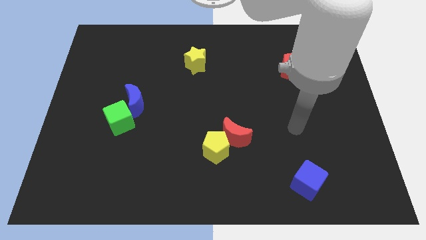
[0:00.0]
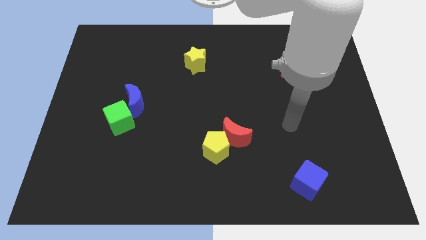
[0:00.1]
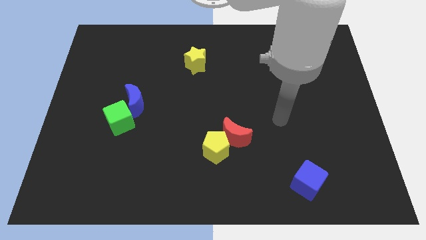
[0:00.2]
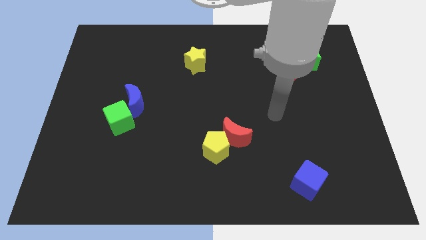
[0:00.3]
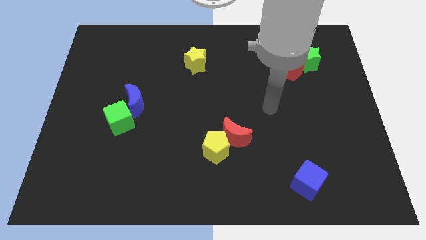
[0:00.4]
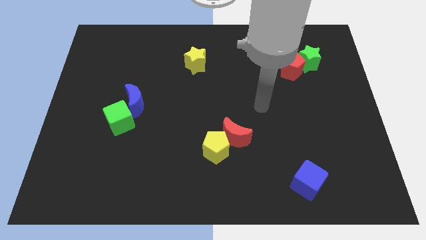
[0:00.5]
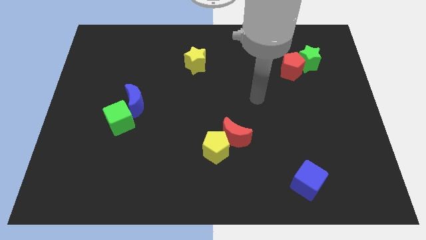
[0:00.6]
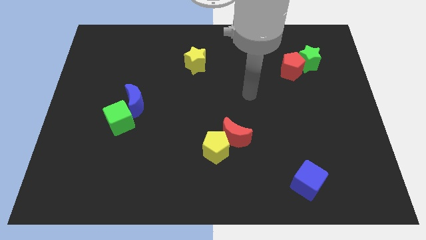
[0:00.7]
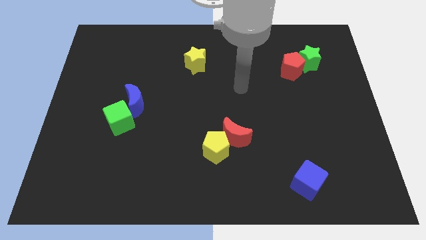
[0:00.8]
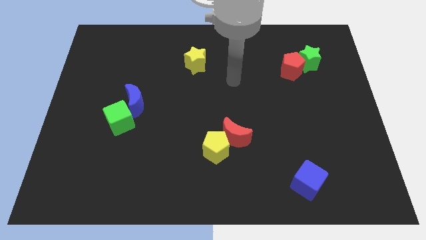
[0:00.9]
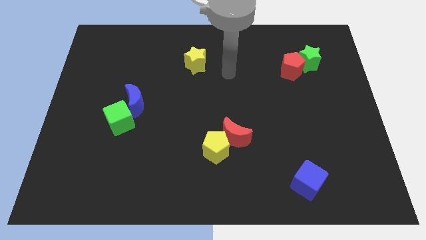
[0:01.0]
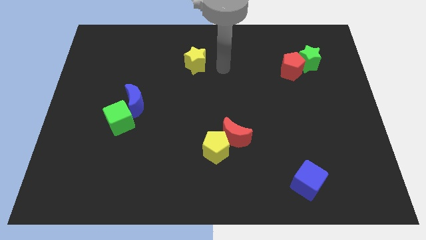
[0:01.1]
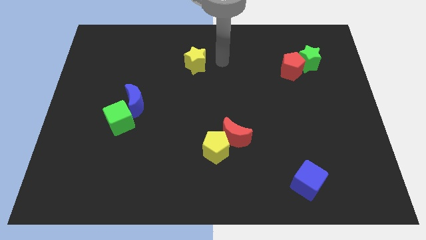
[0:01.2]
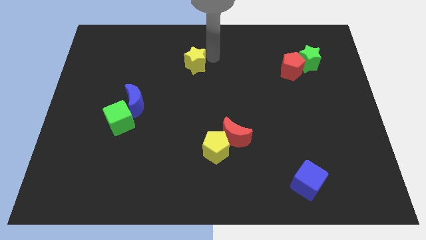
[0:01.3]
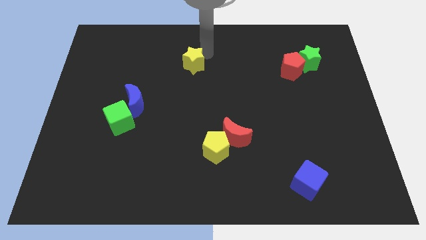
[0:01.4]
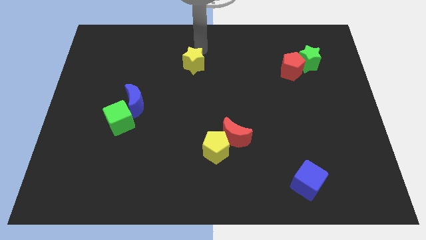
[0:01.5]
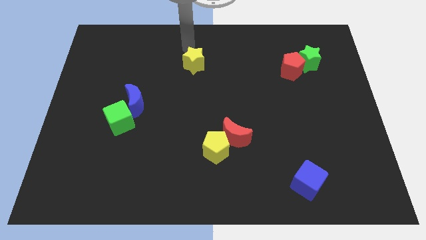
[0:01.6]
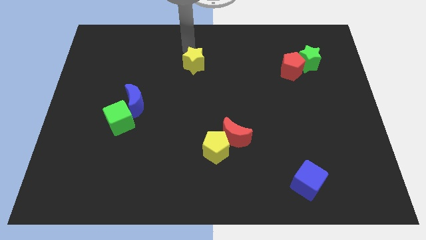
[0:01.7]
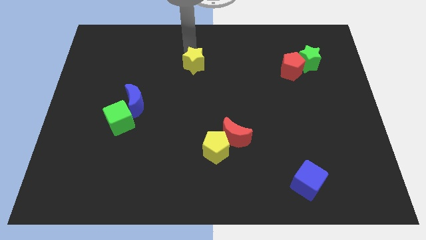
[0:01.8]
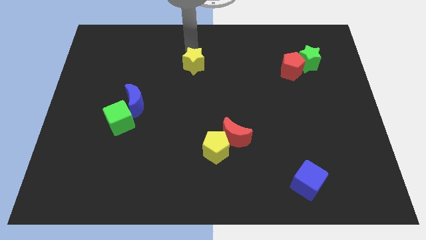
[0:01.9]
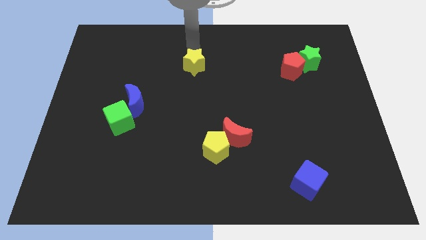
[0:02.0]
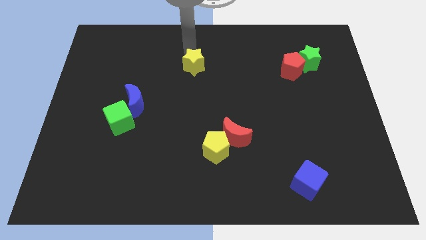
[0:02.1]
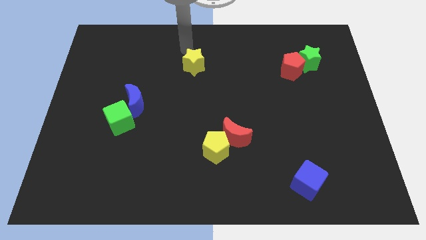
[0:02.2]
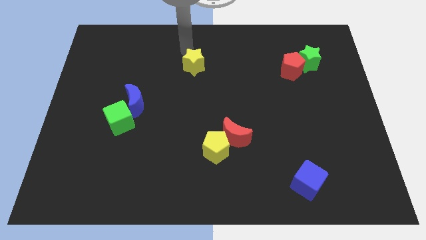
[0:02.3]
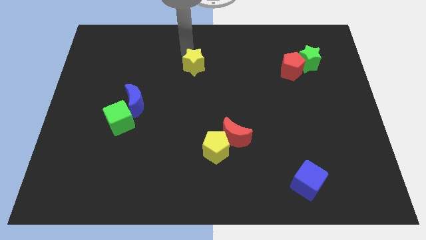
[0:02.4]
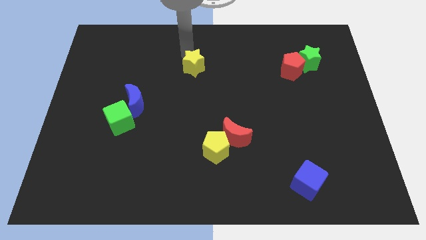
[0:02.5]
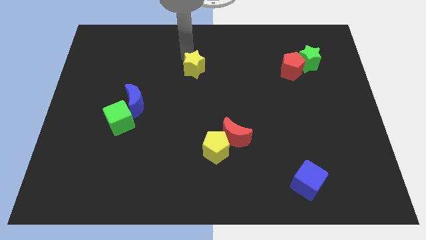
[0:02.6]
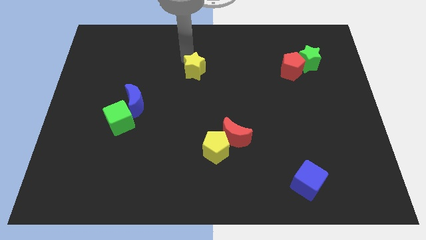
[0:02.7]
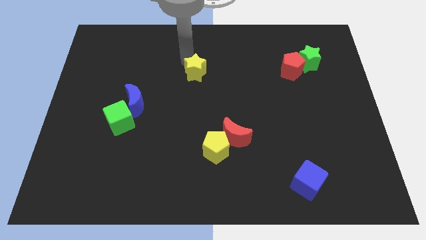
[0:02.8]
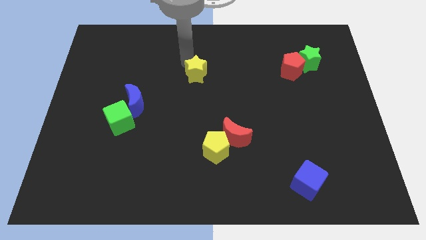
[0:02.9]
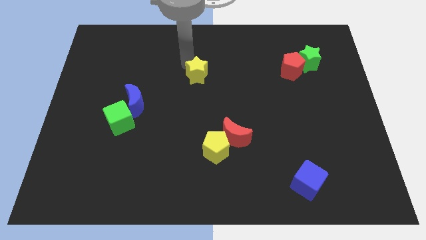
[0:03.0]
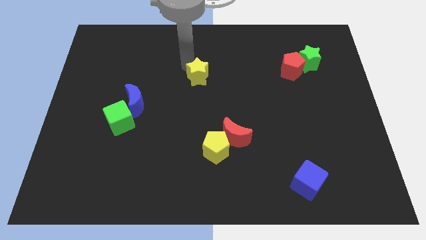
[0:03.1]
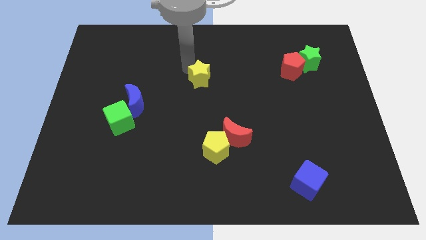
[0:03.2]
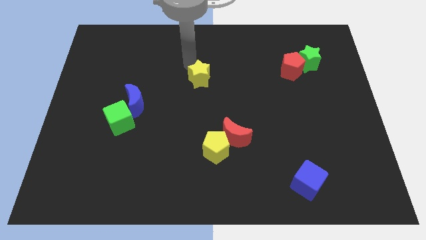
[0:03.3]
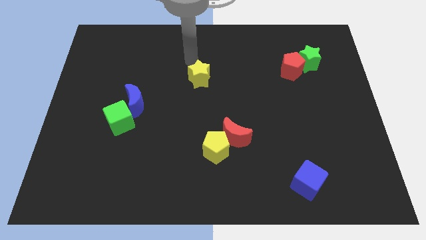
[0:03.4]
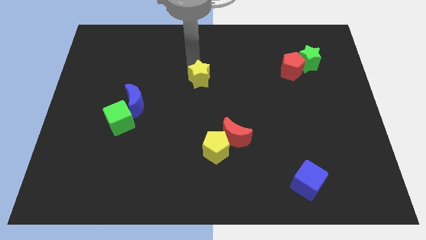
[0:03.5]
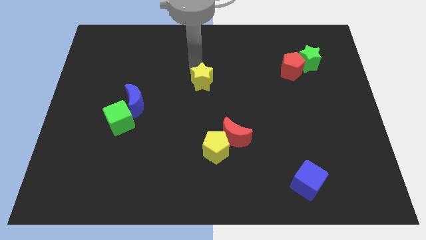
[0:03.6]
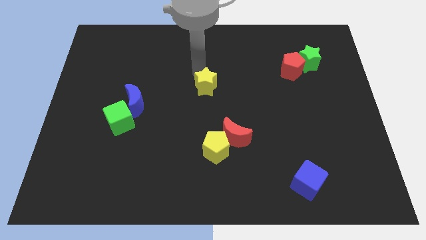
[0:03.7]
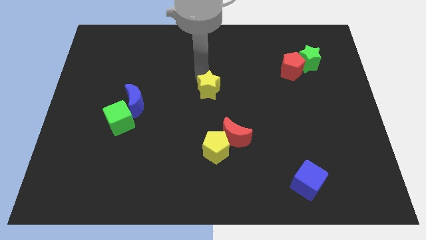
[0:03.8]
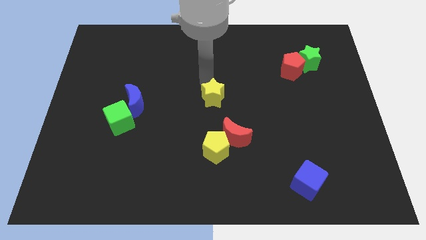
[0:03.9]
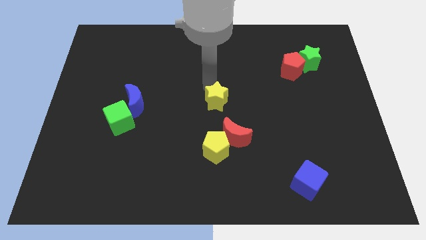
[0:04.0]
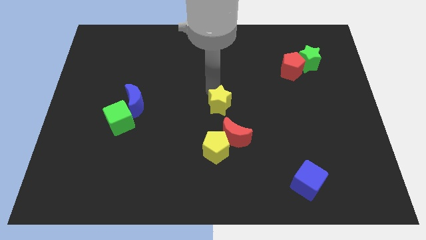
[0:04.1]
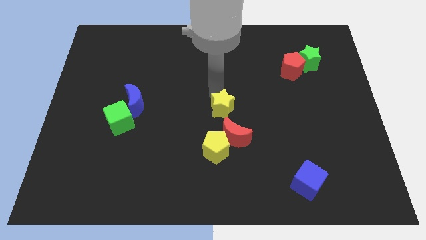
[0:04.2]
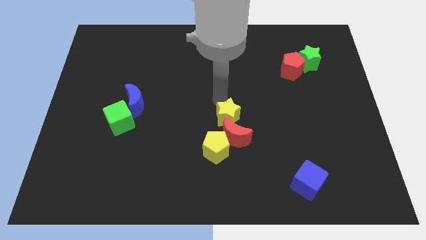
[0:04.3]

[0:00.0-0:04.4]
push the yellow star towards the red moon
